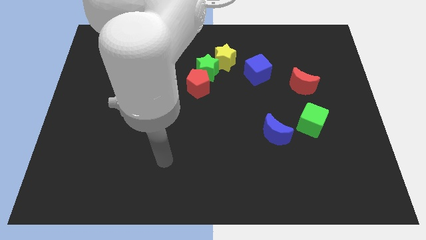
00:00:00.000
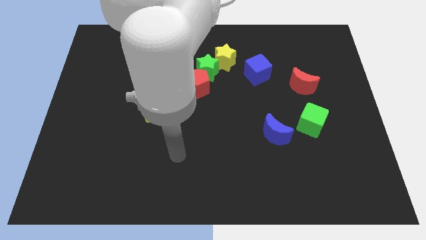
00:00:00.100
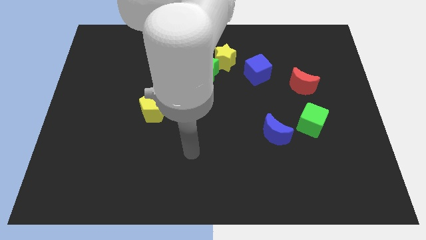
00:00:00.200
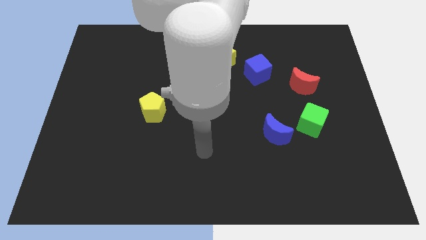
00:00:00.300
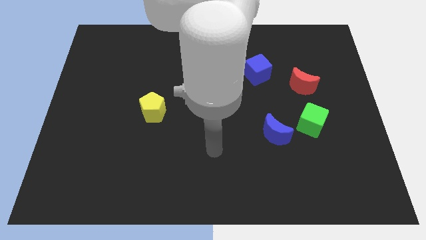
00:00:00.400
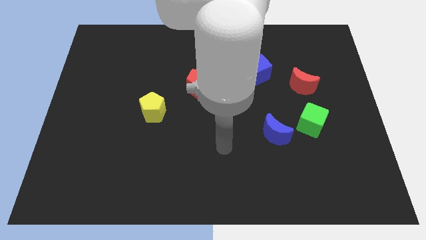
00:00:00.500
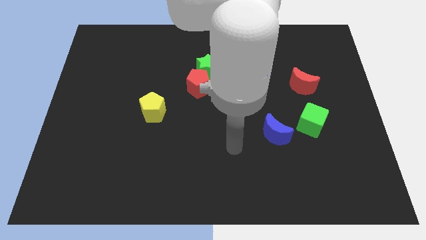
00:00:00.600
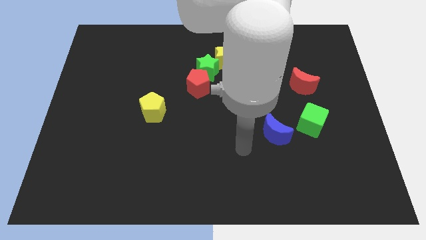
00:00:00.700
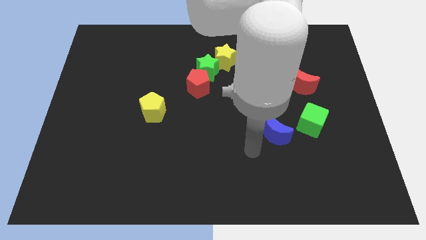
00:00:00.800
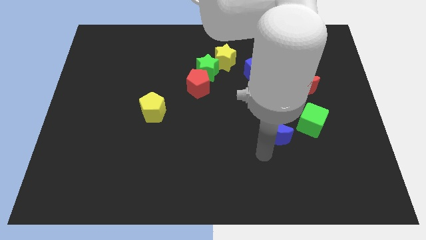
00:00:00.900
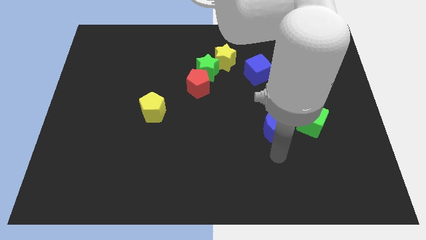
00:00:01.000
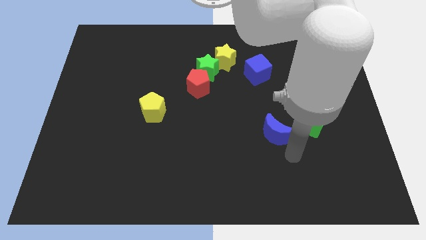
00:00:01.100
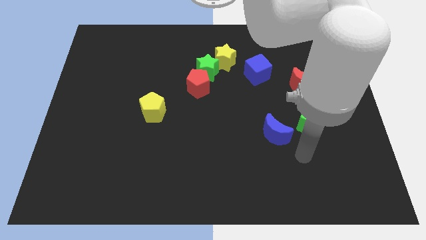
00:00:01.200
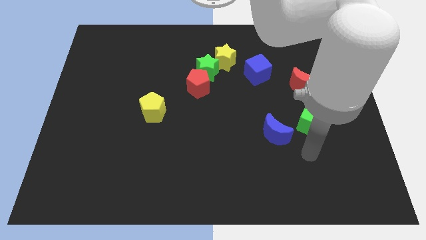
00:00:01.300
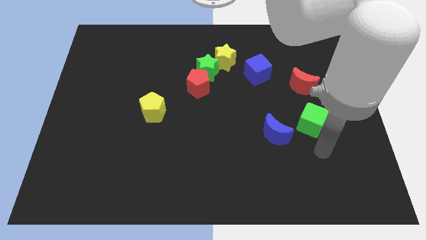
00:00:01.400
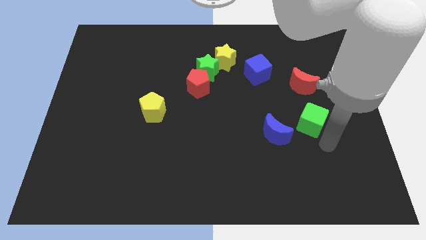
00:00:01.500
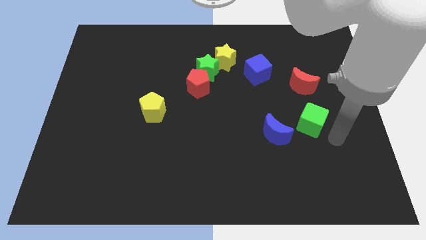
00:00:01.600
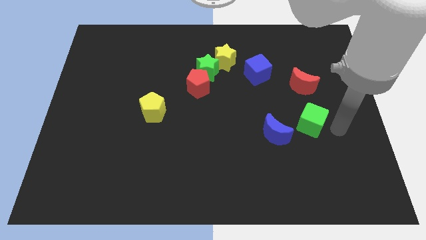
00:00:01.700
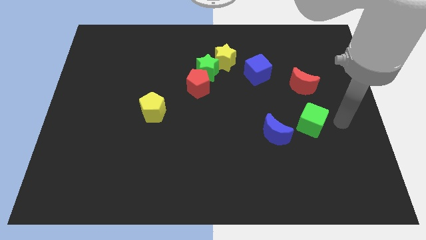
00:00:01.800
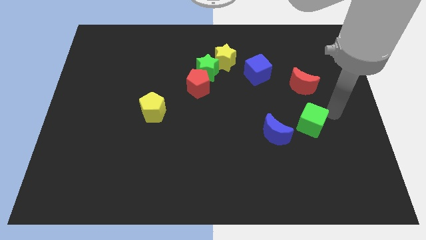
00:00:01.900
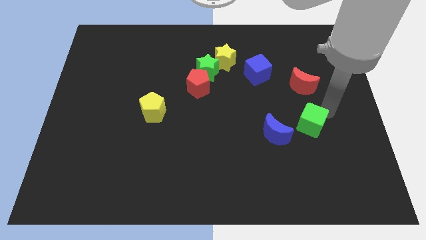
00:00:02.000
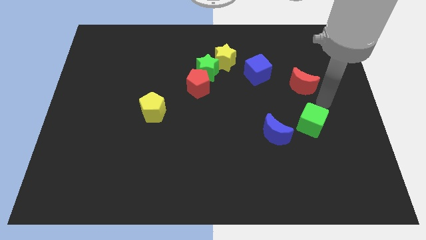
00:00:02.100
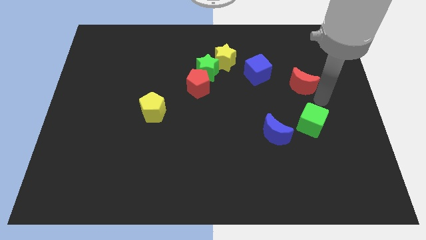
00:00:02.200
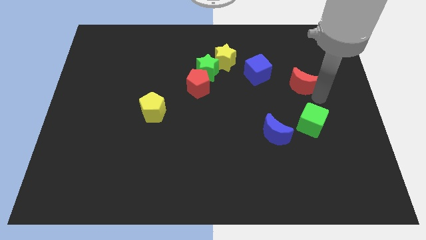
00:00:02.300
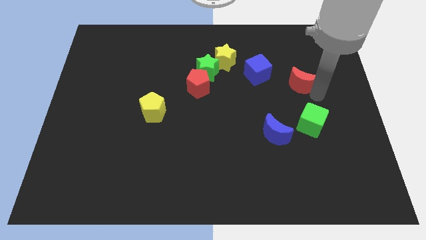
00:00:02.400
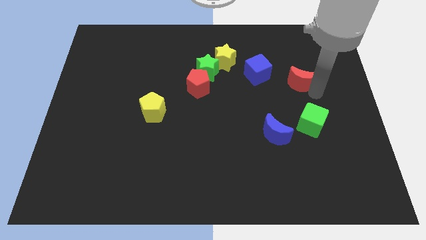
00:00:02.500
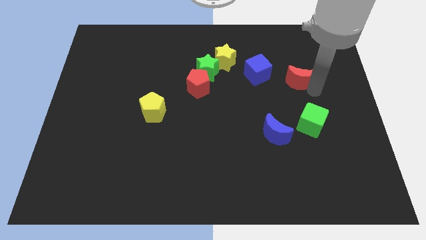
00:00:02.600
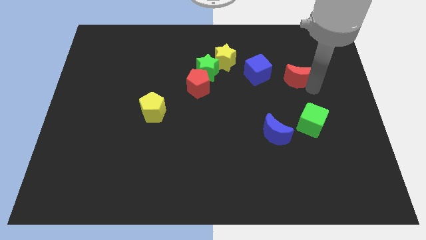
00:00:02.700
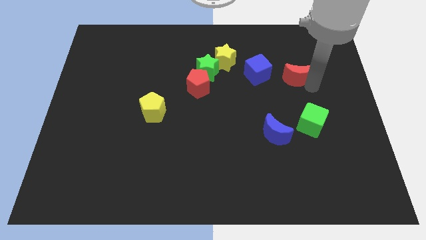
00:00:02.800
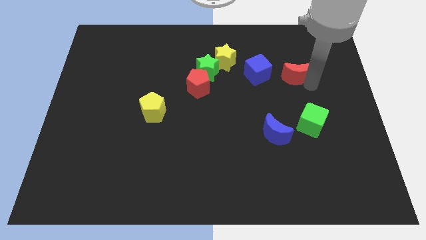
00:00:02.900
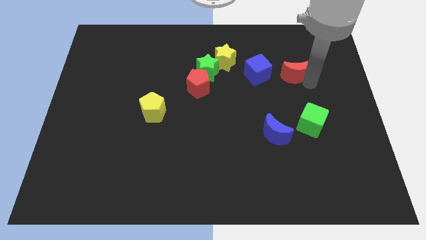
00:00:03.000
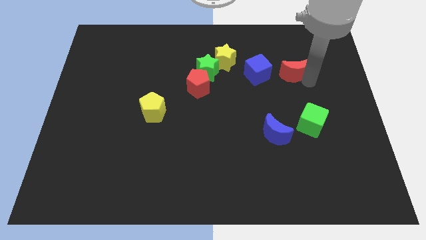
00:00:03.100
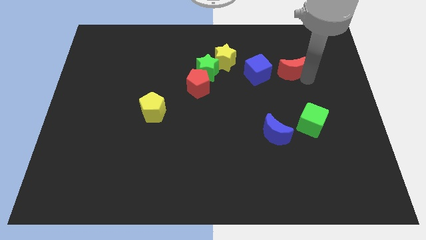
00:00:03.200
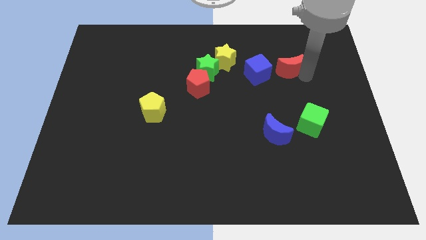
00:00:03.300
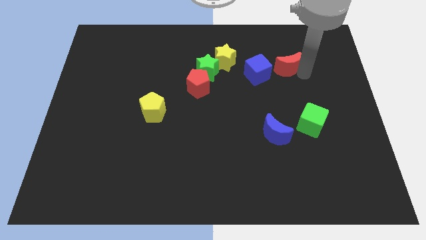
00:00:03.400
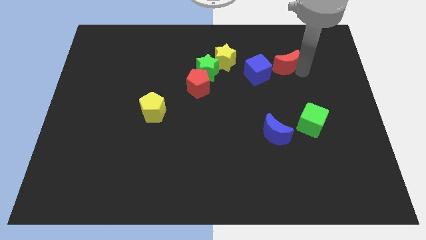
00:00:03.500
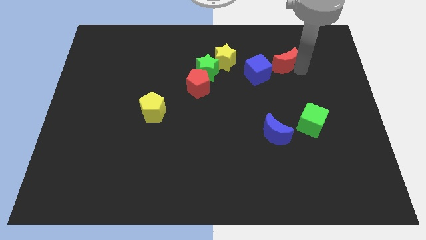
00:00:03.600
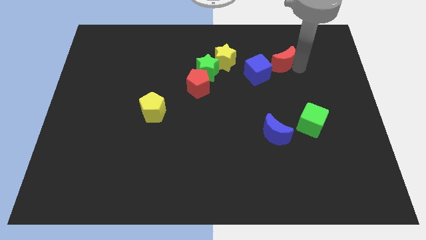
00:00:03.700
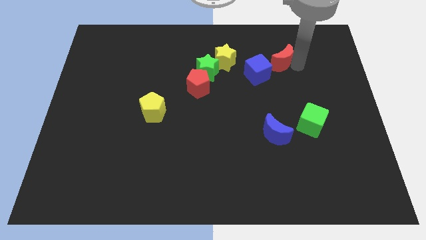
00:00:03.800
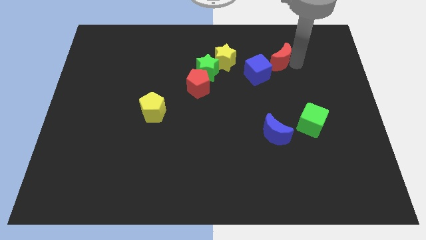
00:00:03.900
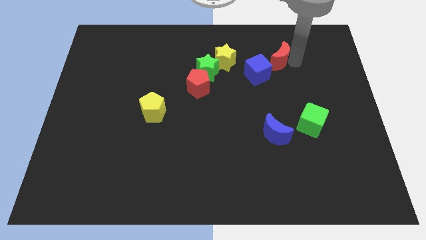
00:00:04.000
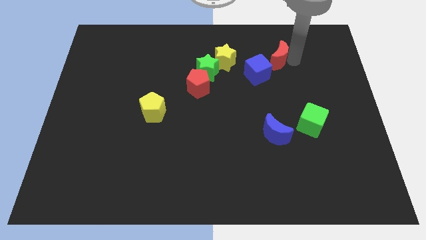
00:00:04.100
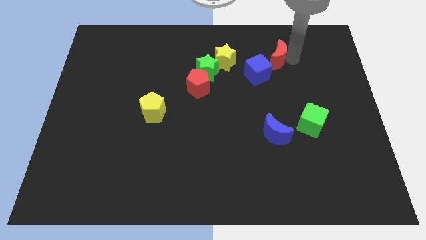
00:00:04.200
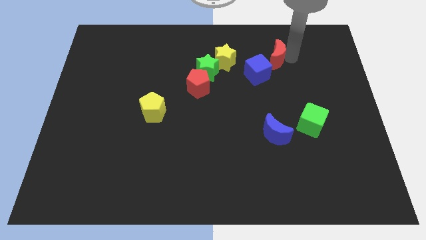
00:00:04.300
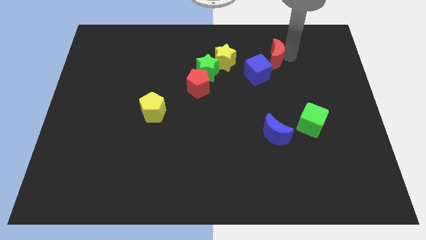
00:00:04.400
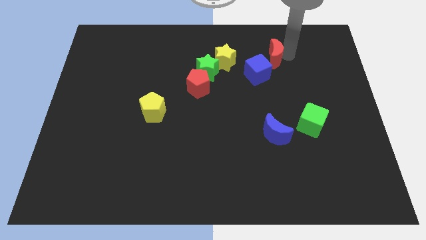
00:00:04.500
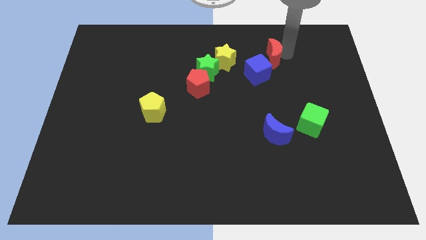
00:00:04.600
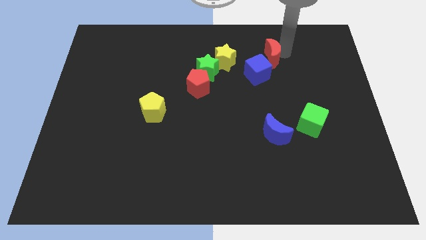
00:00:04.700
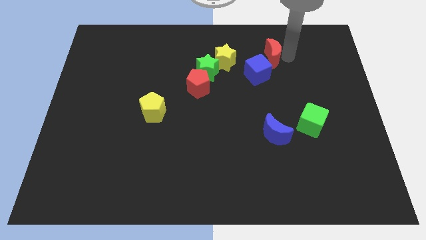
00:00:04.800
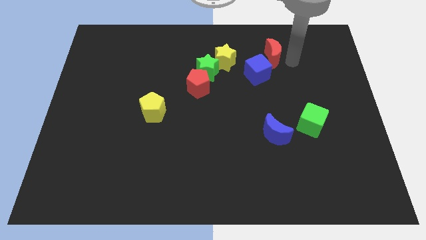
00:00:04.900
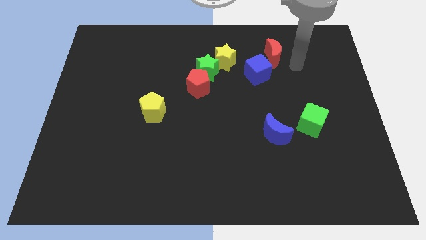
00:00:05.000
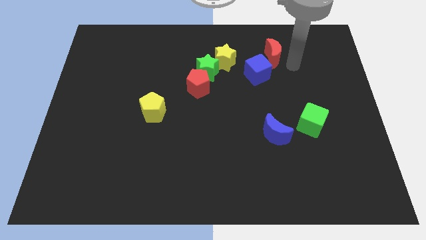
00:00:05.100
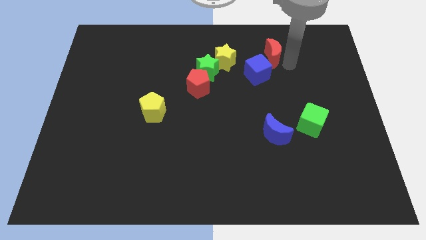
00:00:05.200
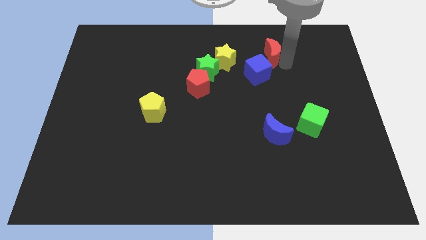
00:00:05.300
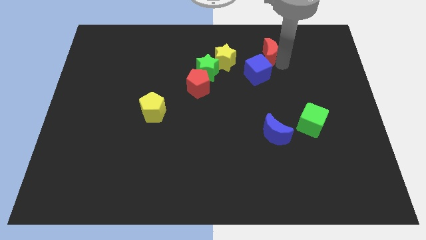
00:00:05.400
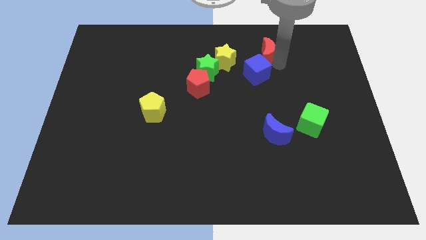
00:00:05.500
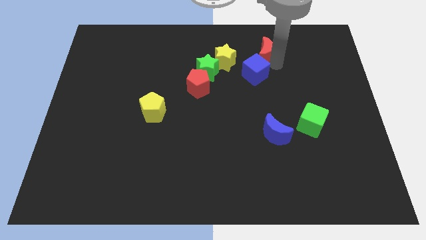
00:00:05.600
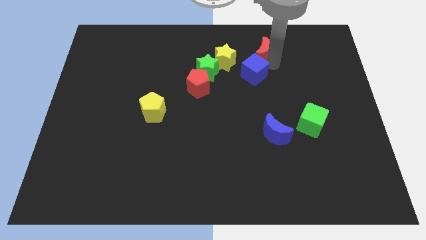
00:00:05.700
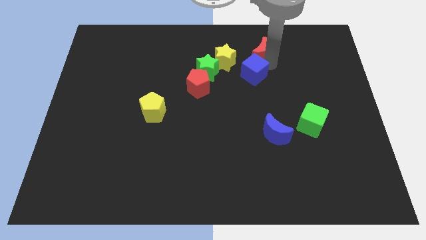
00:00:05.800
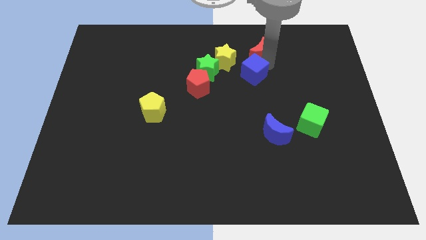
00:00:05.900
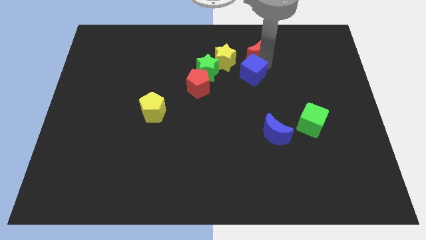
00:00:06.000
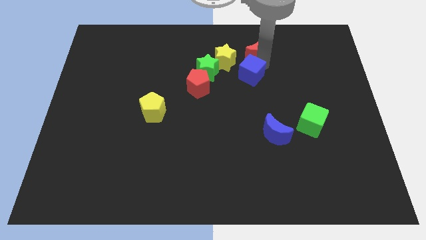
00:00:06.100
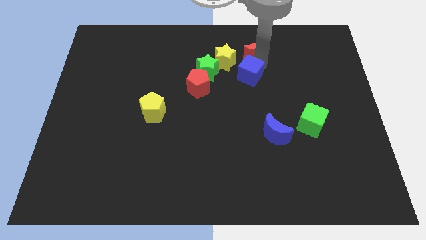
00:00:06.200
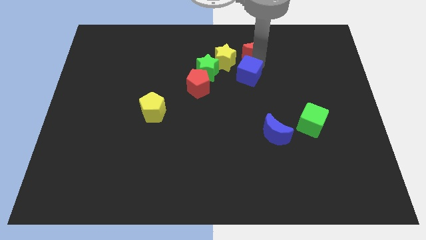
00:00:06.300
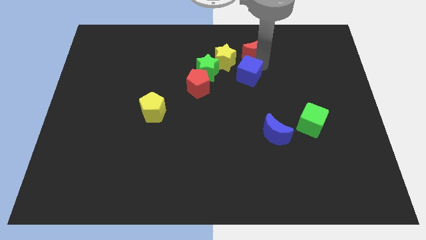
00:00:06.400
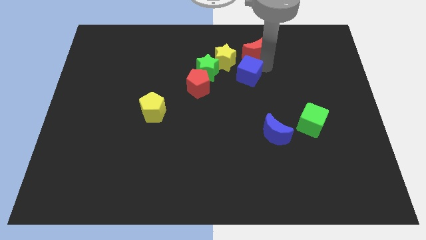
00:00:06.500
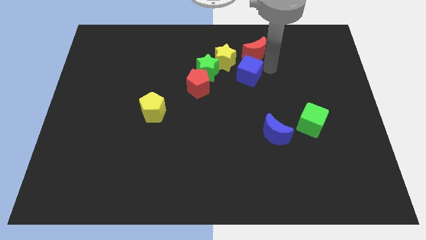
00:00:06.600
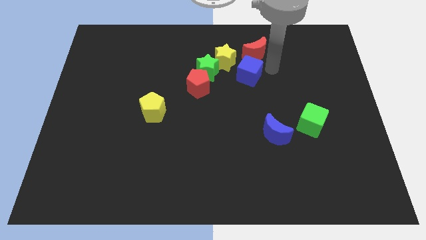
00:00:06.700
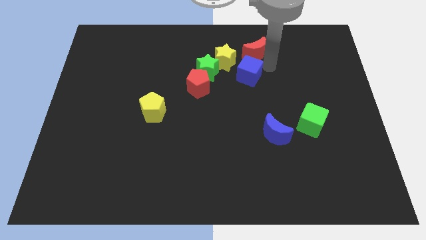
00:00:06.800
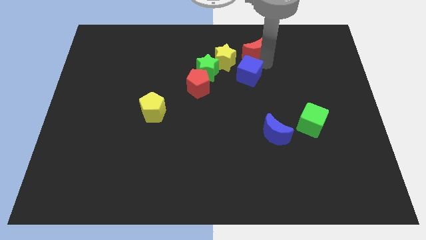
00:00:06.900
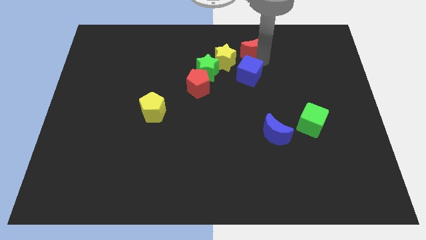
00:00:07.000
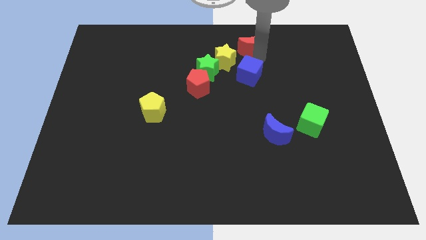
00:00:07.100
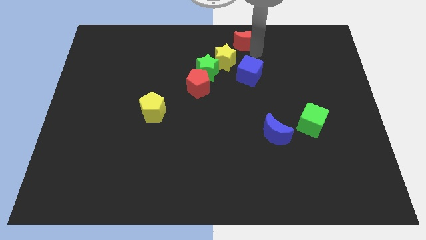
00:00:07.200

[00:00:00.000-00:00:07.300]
slide the red moon to the top
